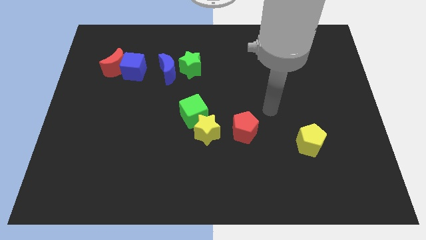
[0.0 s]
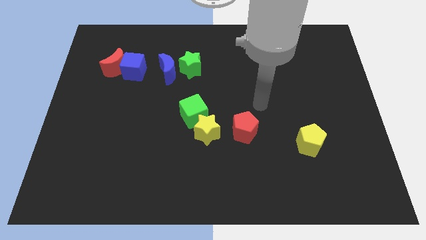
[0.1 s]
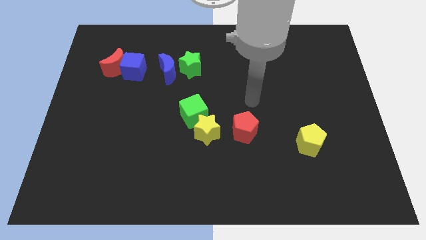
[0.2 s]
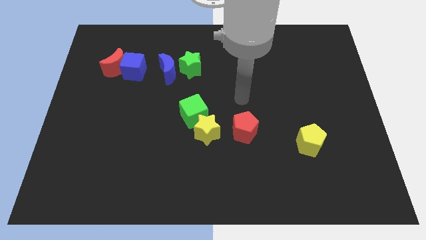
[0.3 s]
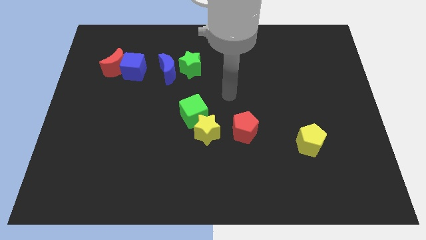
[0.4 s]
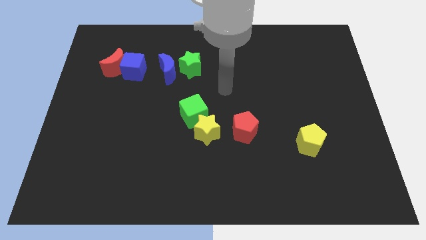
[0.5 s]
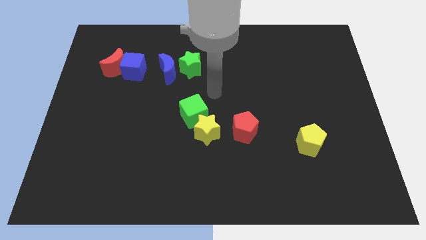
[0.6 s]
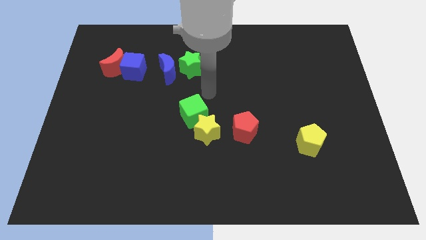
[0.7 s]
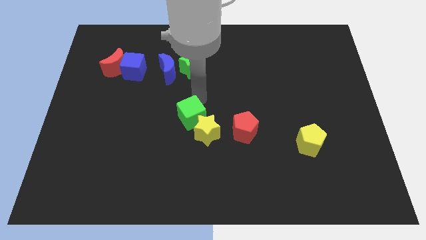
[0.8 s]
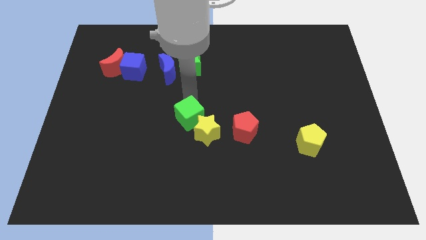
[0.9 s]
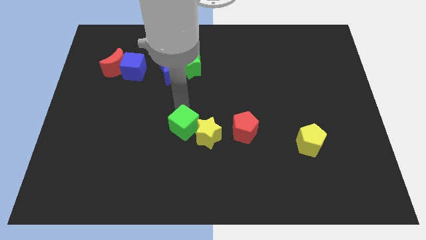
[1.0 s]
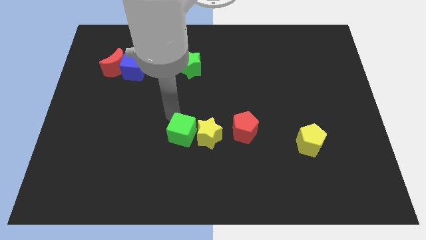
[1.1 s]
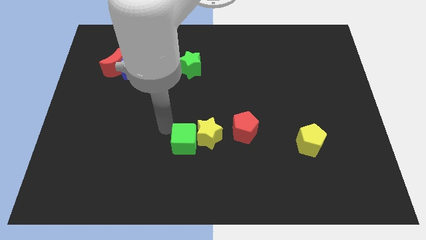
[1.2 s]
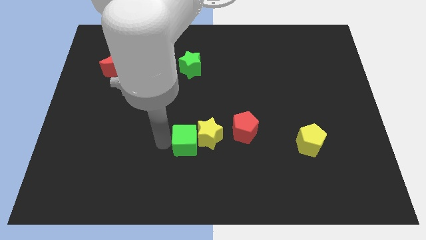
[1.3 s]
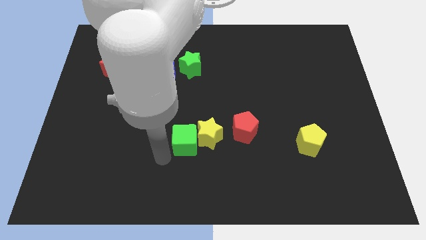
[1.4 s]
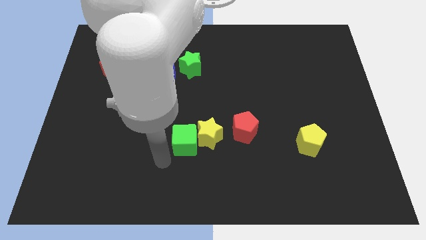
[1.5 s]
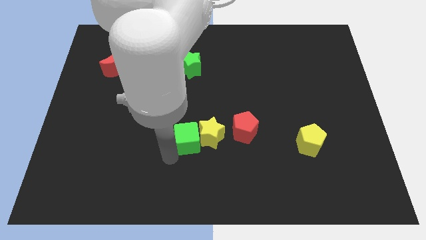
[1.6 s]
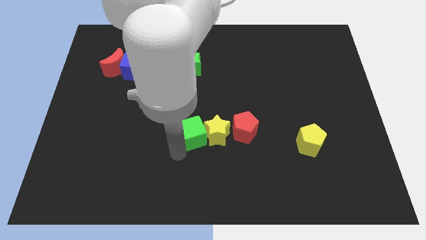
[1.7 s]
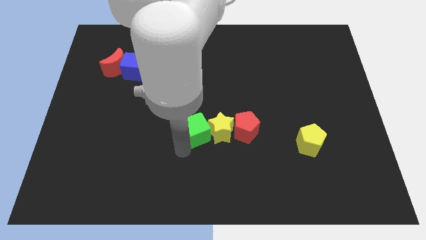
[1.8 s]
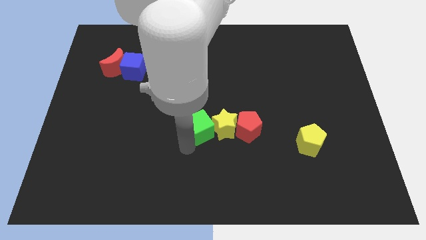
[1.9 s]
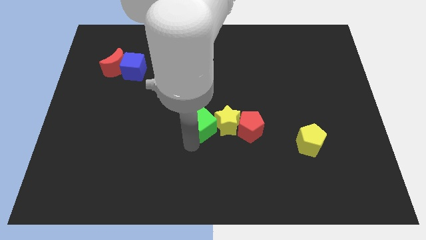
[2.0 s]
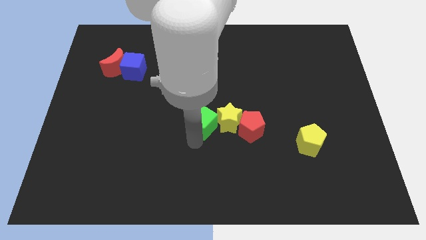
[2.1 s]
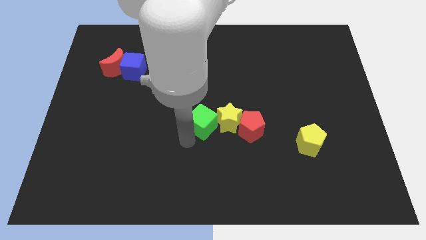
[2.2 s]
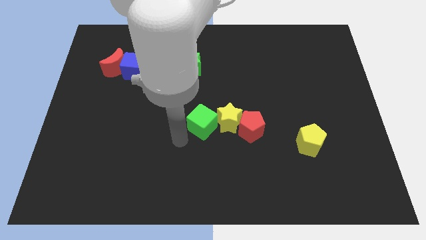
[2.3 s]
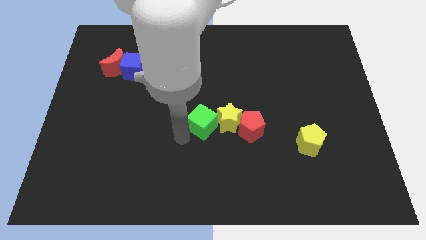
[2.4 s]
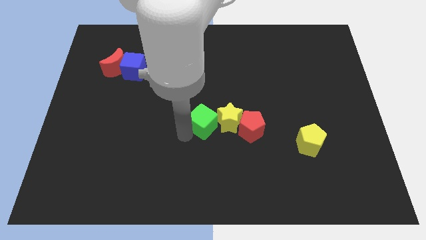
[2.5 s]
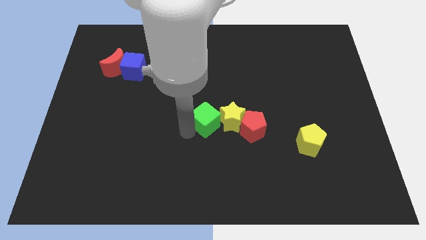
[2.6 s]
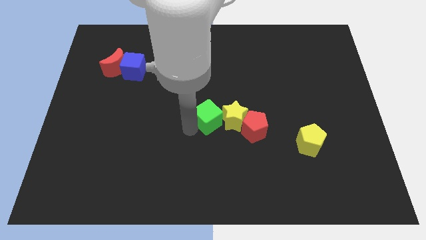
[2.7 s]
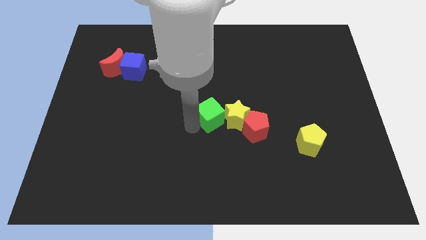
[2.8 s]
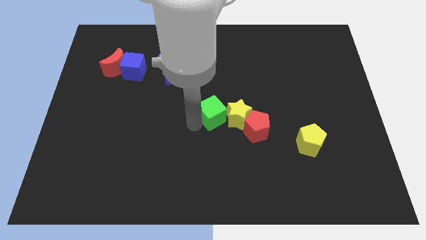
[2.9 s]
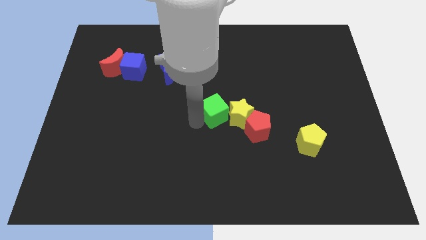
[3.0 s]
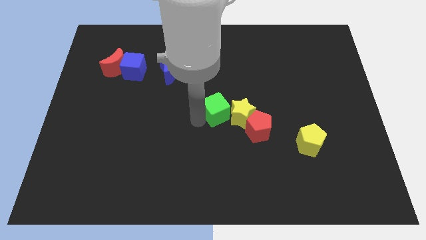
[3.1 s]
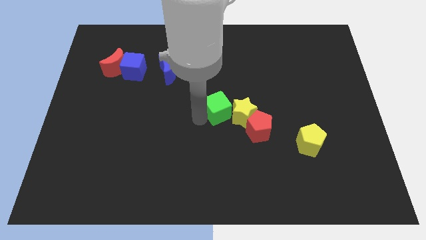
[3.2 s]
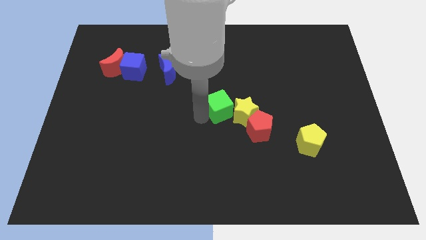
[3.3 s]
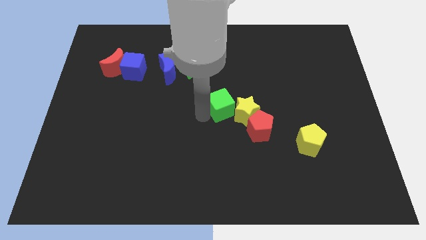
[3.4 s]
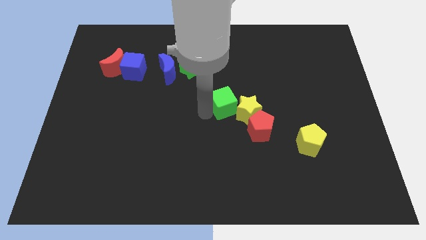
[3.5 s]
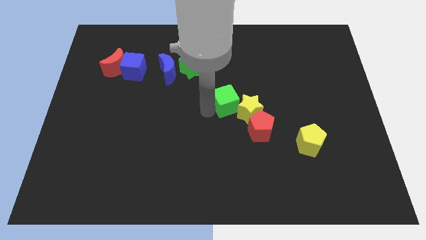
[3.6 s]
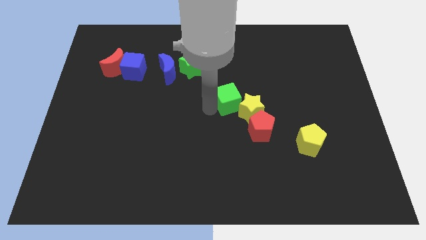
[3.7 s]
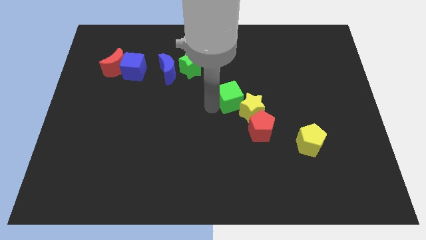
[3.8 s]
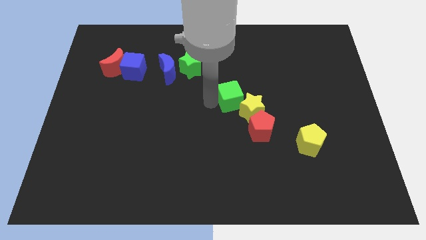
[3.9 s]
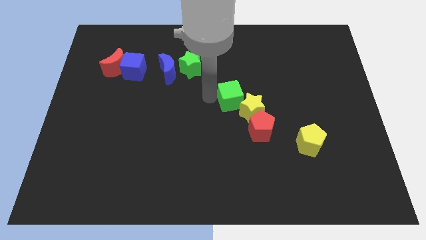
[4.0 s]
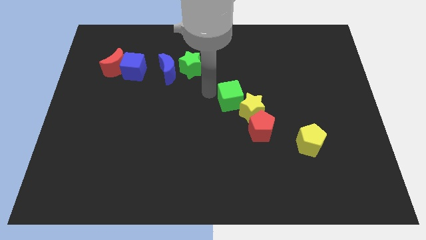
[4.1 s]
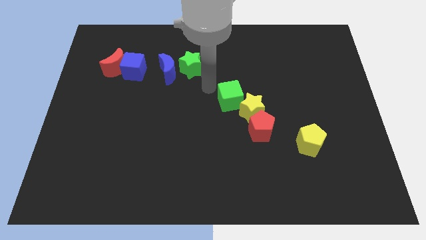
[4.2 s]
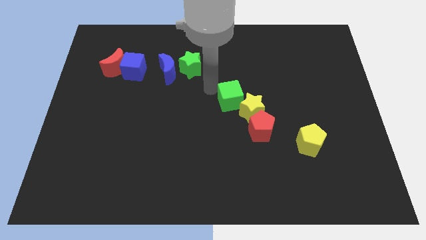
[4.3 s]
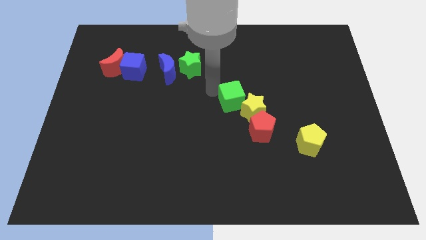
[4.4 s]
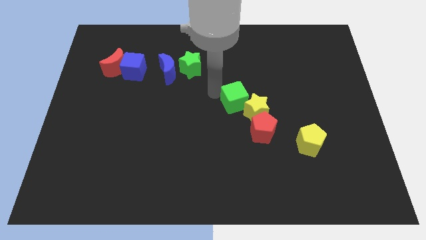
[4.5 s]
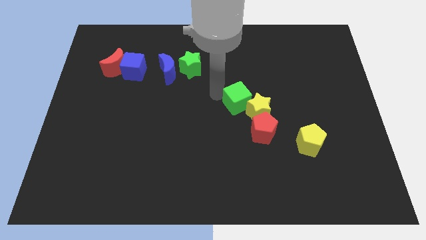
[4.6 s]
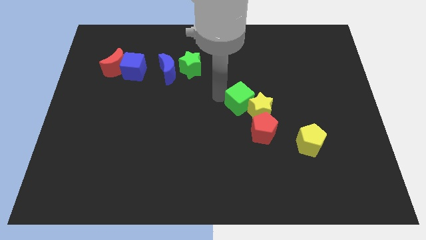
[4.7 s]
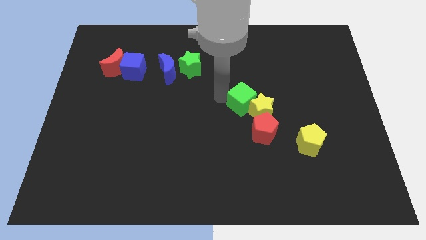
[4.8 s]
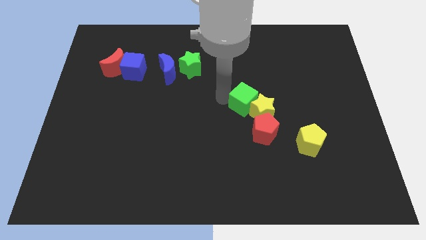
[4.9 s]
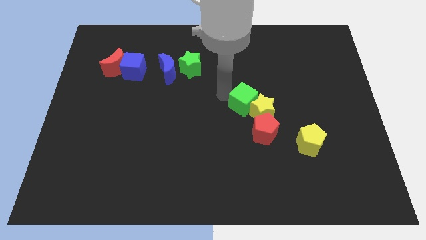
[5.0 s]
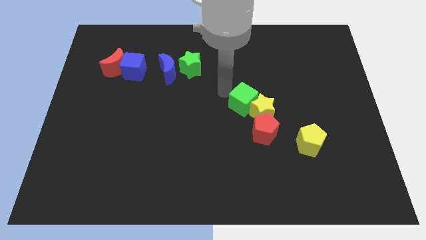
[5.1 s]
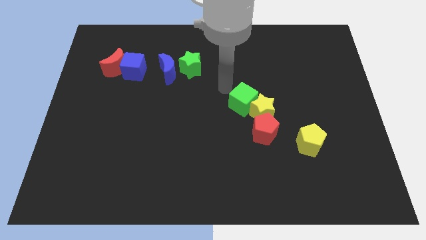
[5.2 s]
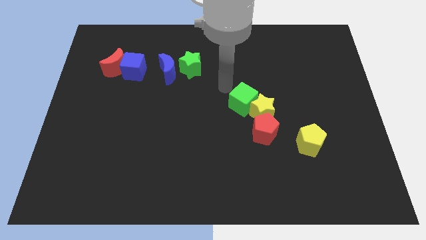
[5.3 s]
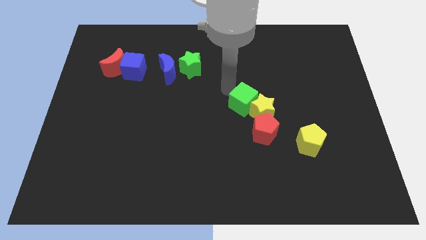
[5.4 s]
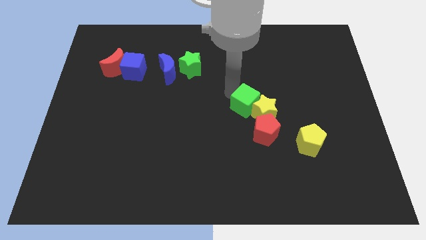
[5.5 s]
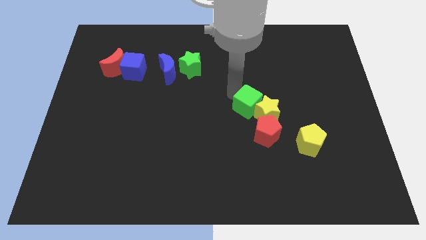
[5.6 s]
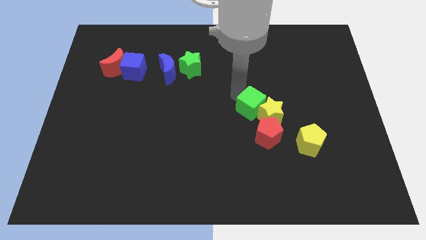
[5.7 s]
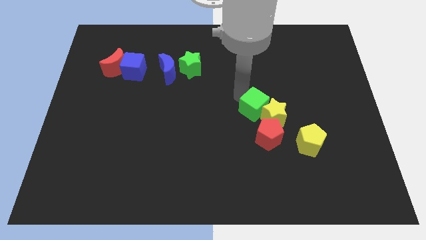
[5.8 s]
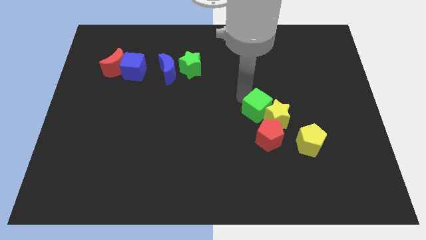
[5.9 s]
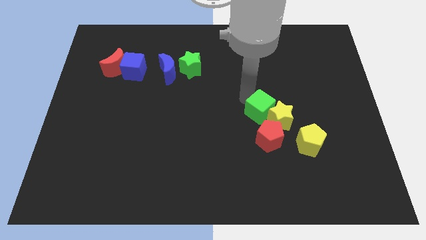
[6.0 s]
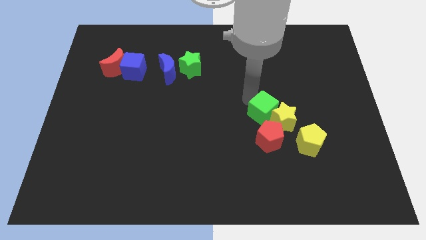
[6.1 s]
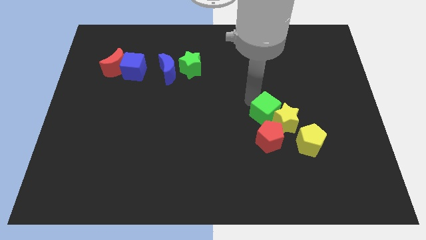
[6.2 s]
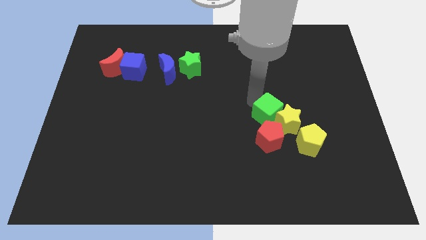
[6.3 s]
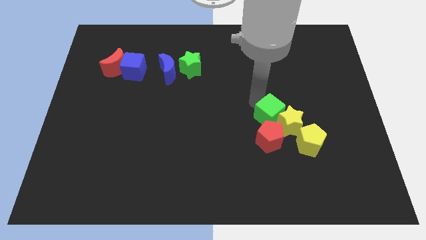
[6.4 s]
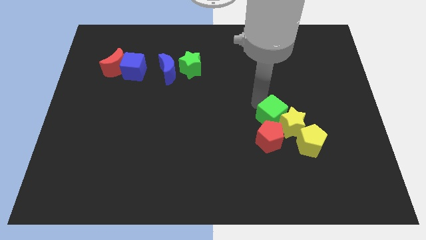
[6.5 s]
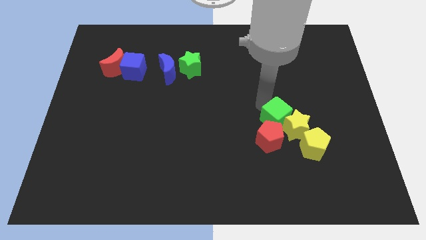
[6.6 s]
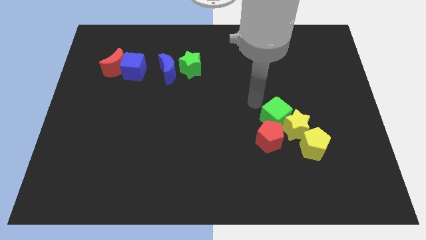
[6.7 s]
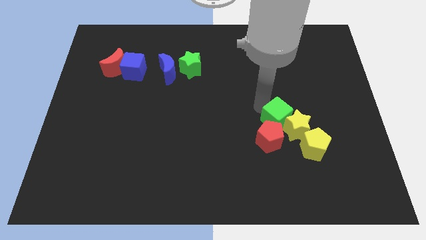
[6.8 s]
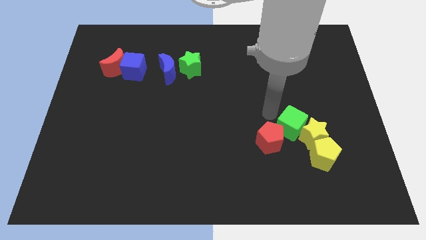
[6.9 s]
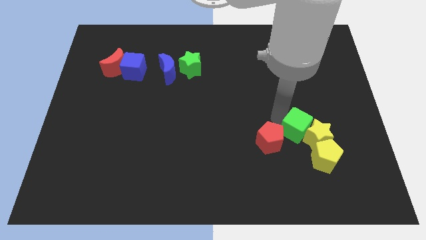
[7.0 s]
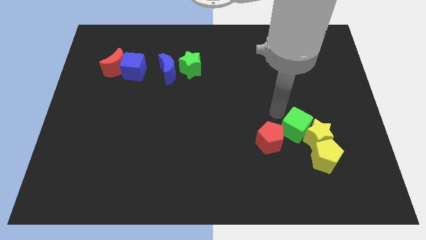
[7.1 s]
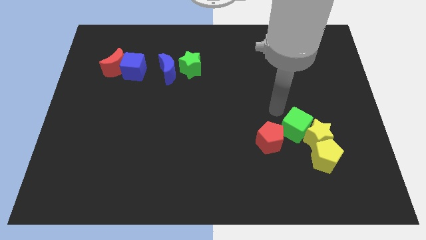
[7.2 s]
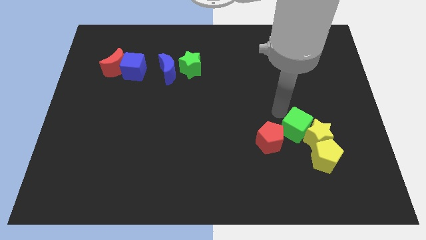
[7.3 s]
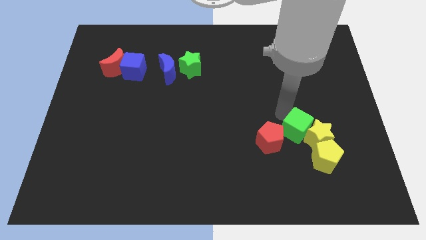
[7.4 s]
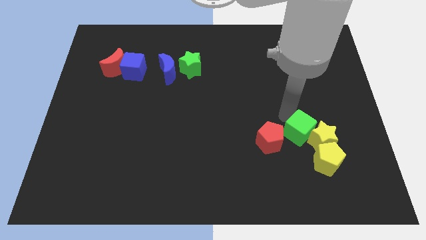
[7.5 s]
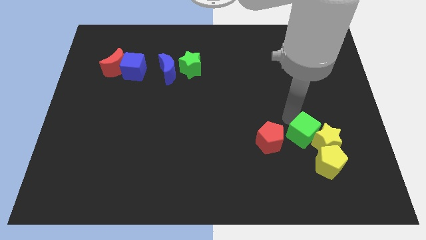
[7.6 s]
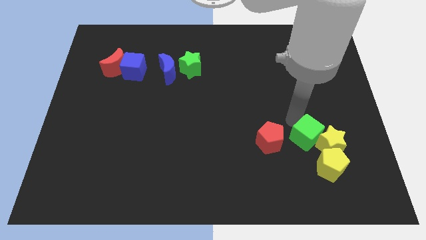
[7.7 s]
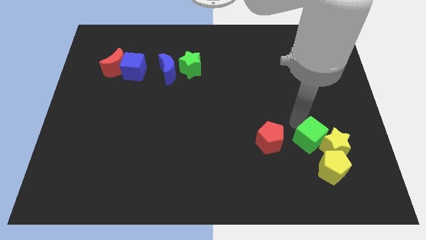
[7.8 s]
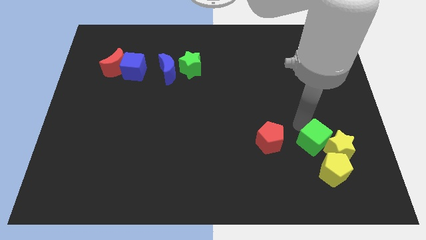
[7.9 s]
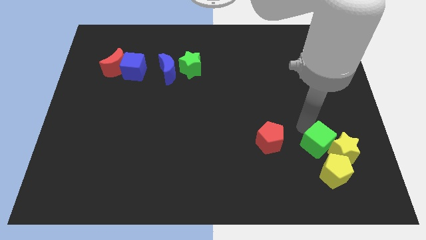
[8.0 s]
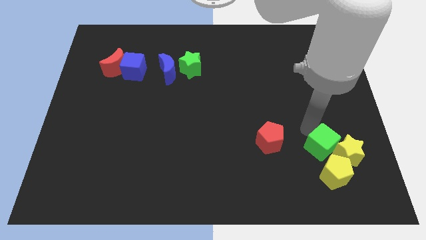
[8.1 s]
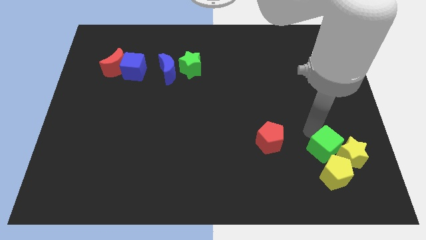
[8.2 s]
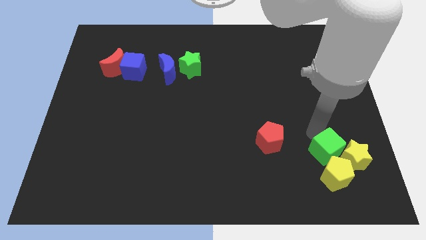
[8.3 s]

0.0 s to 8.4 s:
move the green cube to the yellow pentagon

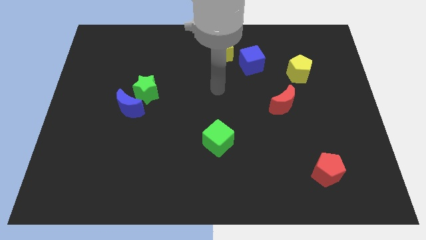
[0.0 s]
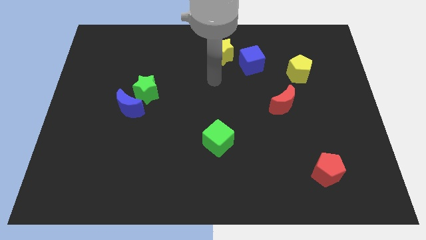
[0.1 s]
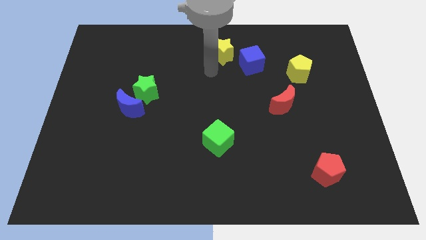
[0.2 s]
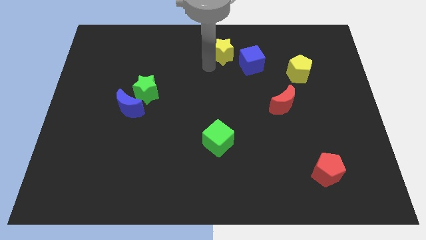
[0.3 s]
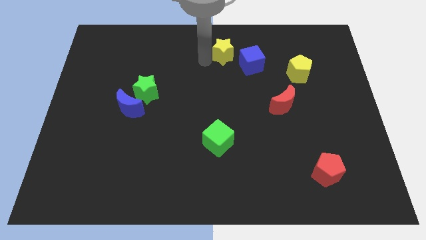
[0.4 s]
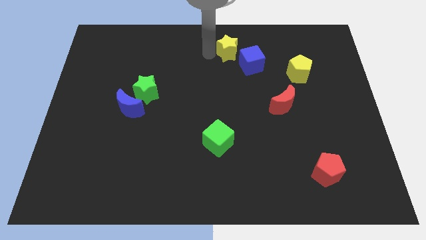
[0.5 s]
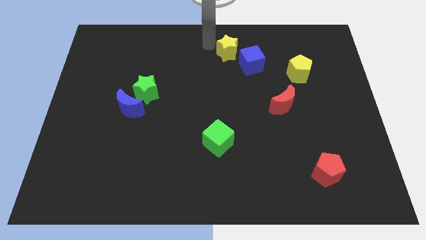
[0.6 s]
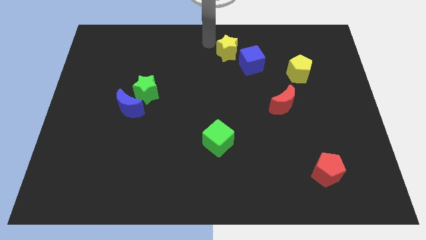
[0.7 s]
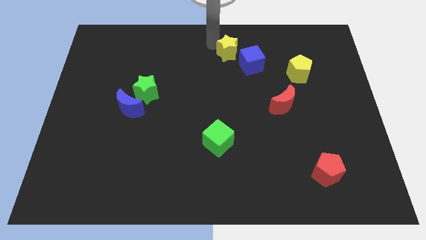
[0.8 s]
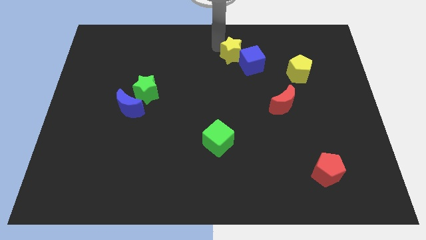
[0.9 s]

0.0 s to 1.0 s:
put the yellow star towards the blue cube
